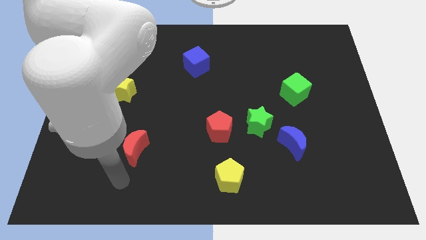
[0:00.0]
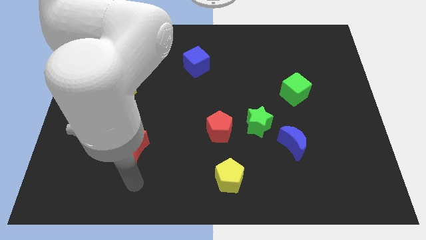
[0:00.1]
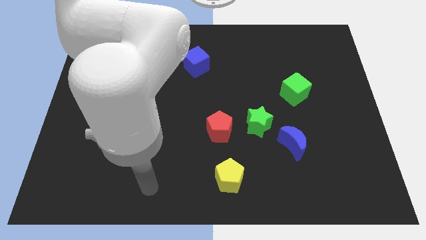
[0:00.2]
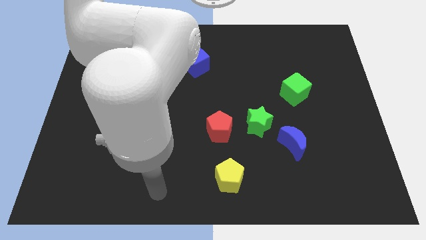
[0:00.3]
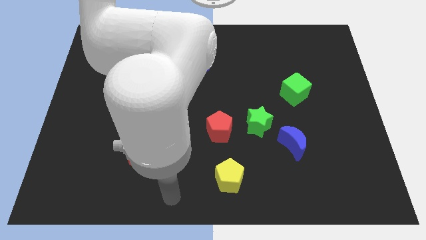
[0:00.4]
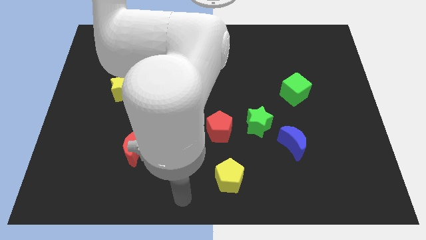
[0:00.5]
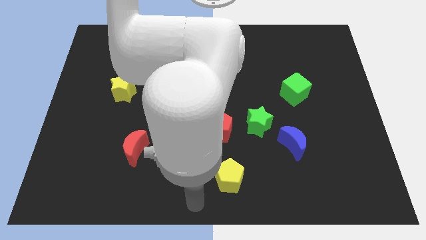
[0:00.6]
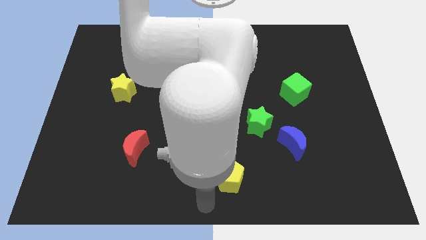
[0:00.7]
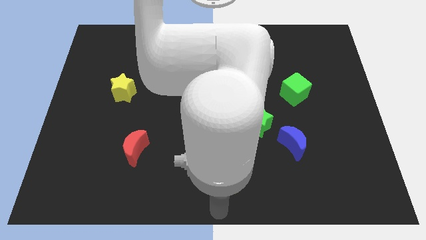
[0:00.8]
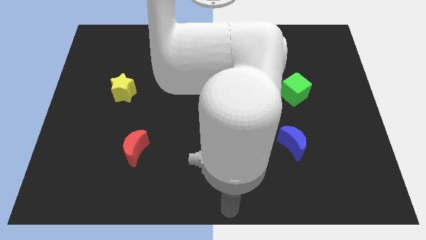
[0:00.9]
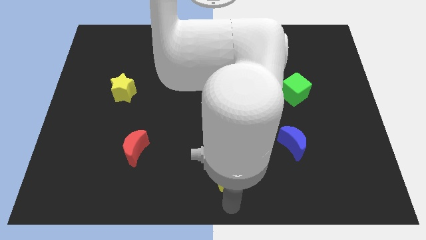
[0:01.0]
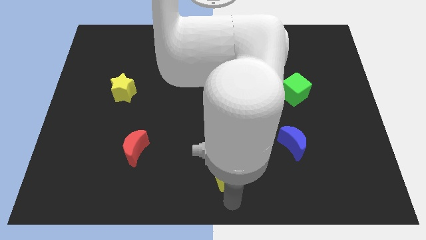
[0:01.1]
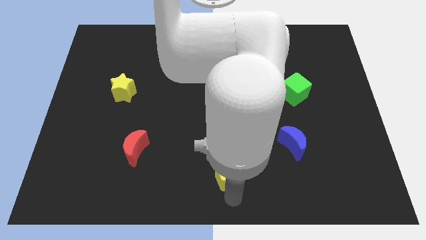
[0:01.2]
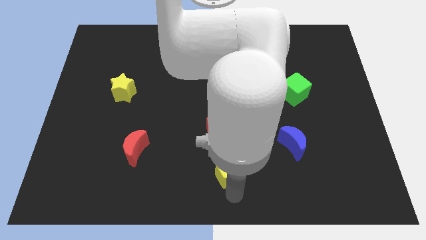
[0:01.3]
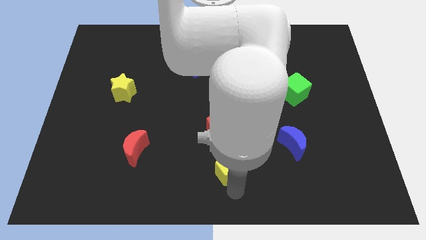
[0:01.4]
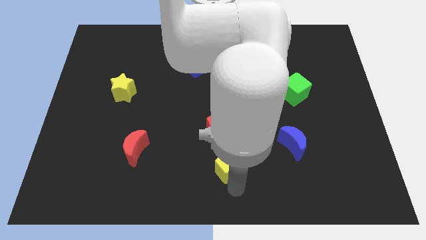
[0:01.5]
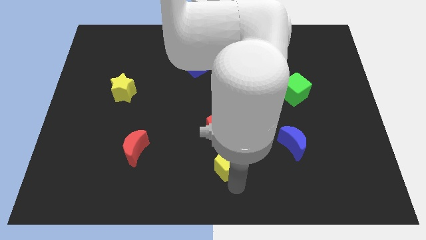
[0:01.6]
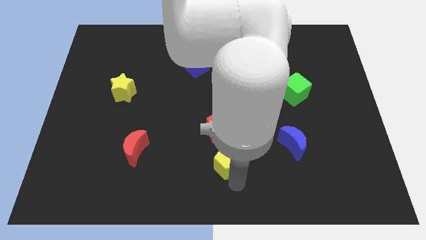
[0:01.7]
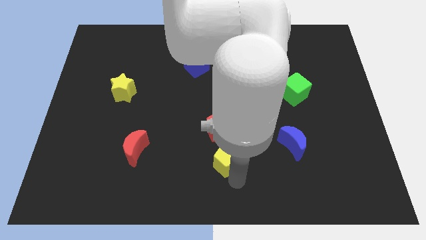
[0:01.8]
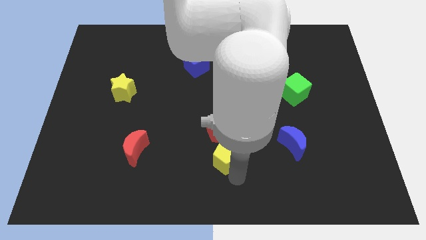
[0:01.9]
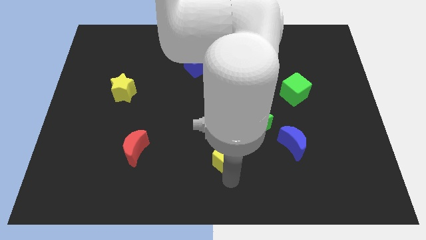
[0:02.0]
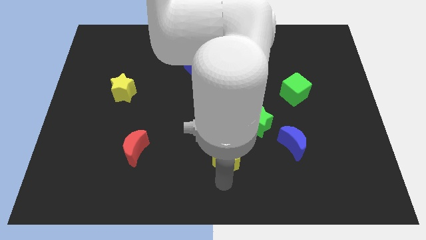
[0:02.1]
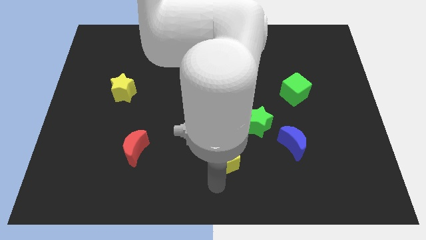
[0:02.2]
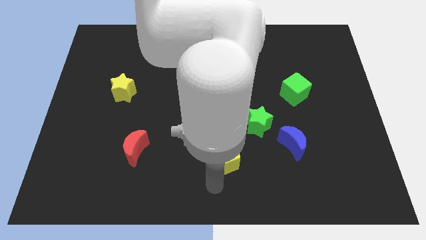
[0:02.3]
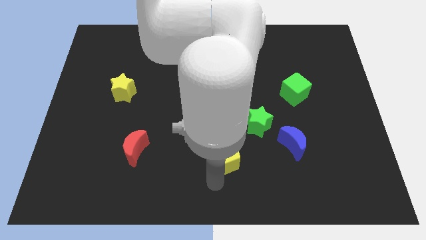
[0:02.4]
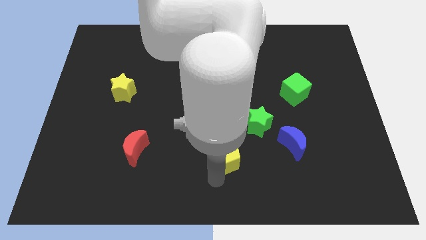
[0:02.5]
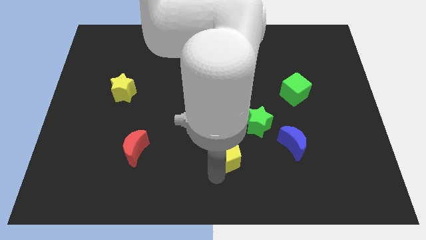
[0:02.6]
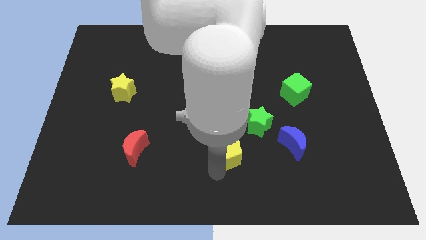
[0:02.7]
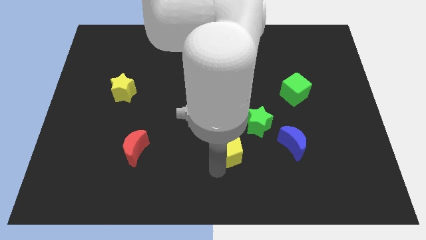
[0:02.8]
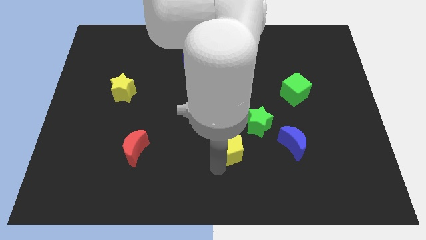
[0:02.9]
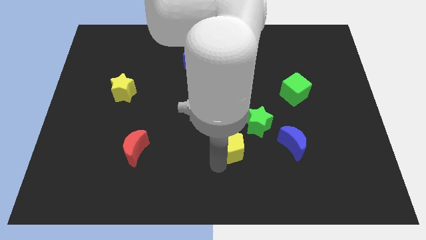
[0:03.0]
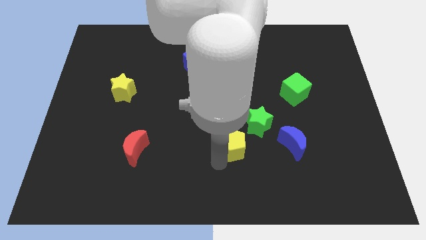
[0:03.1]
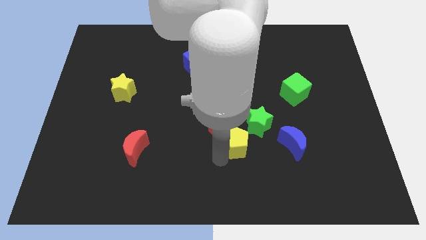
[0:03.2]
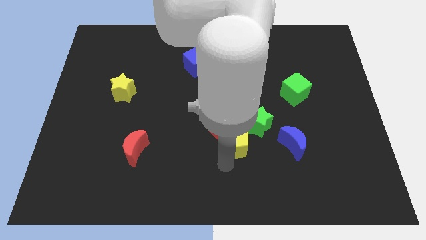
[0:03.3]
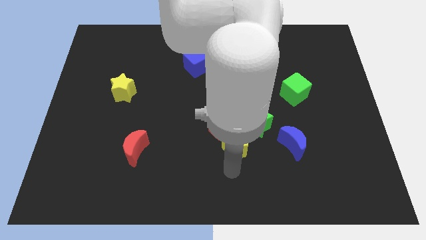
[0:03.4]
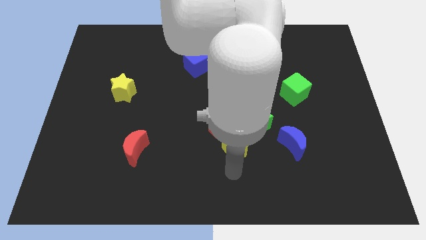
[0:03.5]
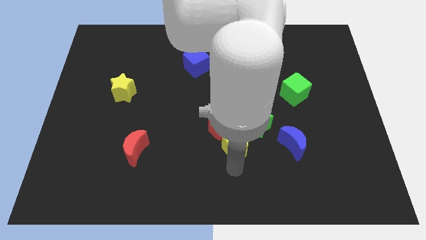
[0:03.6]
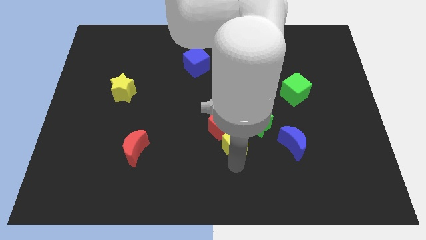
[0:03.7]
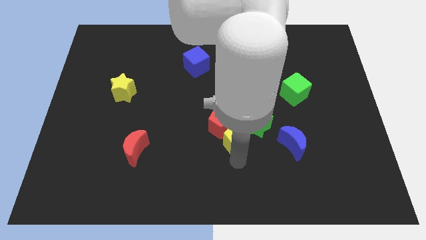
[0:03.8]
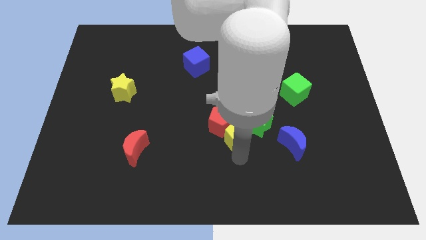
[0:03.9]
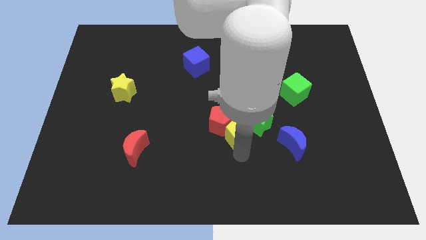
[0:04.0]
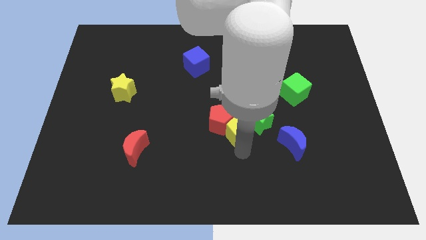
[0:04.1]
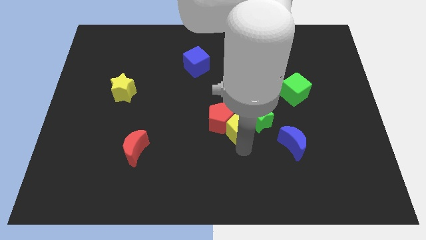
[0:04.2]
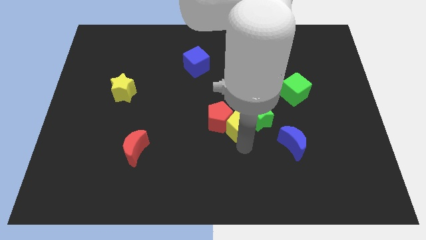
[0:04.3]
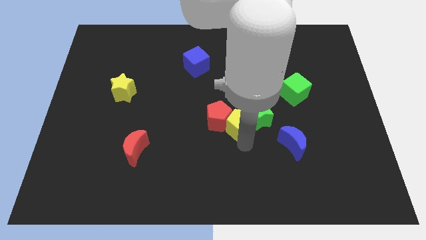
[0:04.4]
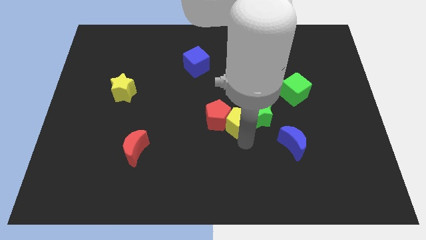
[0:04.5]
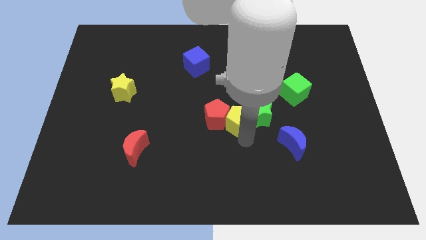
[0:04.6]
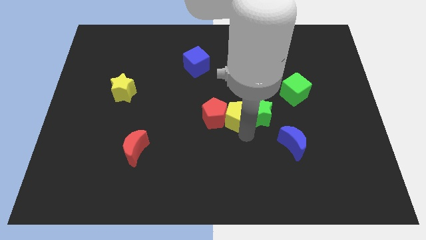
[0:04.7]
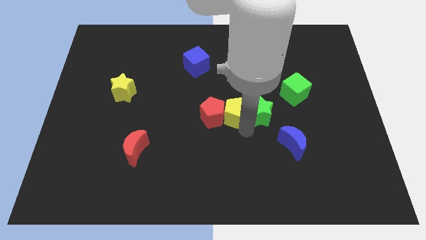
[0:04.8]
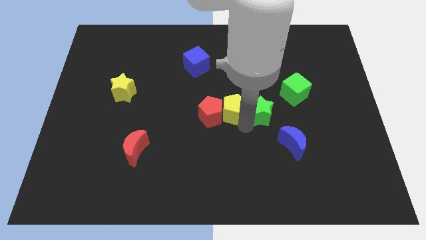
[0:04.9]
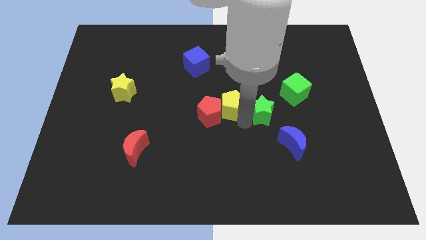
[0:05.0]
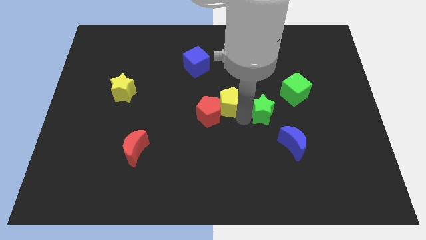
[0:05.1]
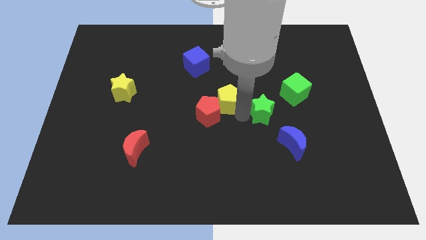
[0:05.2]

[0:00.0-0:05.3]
push the yellow pentagon to the top of the red pentagon

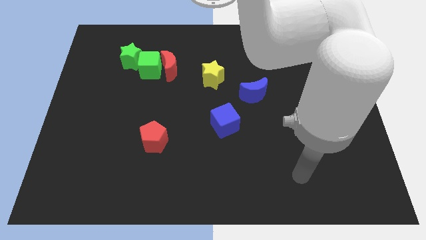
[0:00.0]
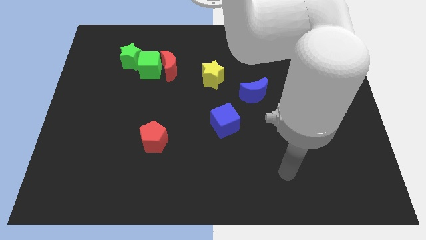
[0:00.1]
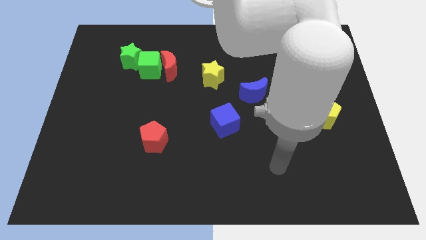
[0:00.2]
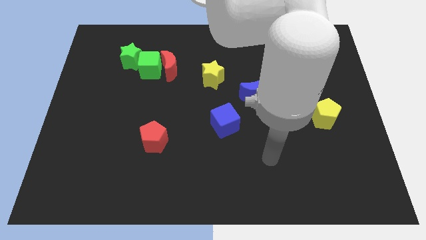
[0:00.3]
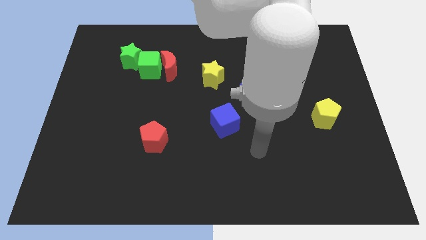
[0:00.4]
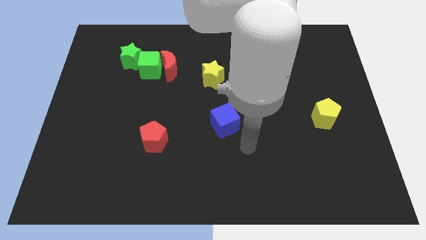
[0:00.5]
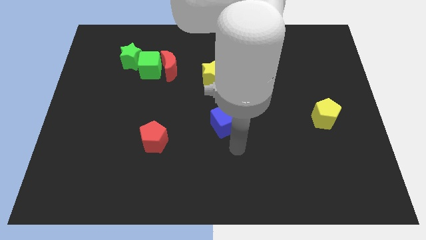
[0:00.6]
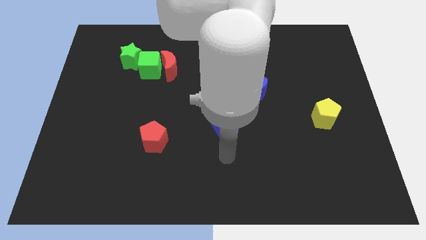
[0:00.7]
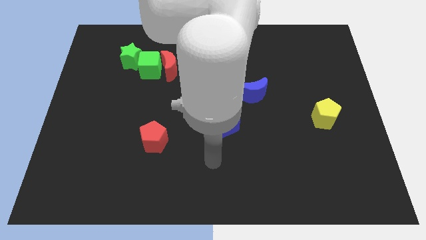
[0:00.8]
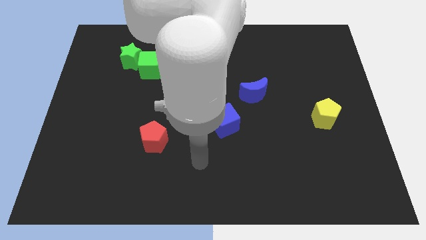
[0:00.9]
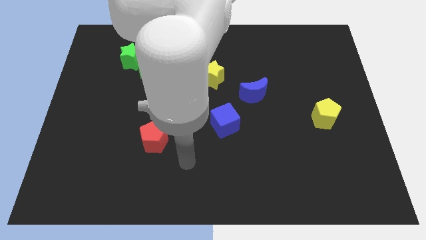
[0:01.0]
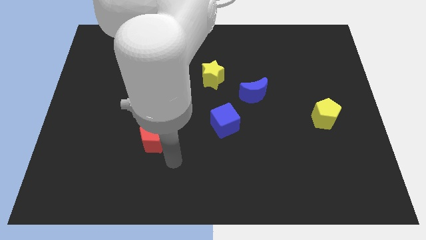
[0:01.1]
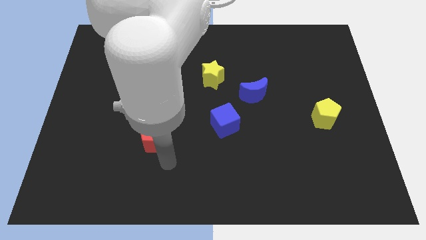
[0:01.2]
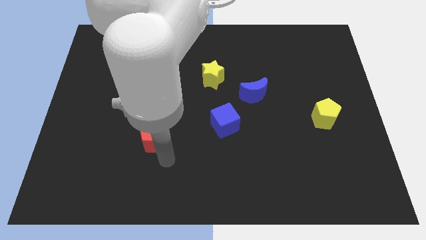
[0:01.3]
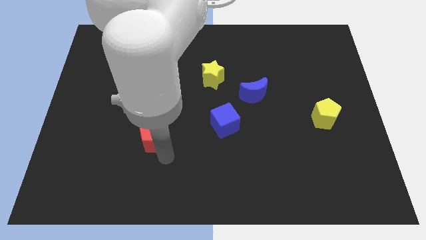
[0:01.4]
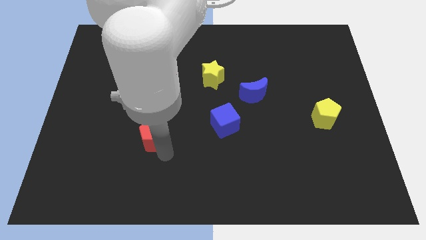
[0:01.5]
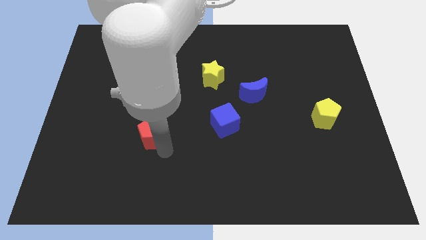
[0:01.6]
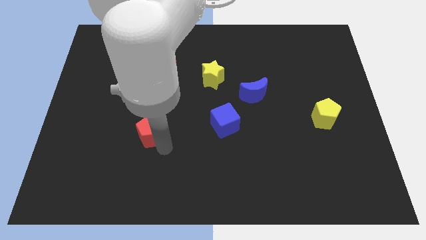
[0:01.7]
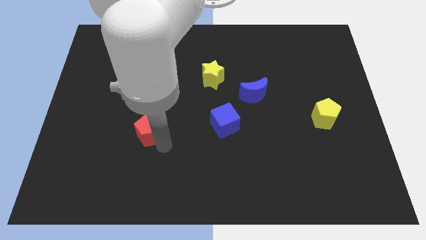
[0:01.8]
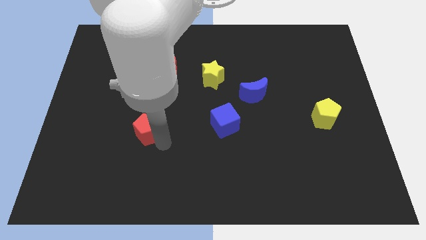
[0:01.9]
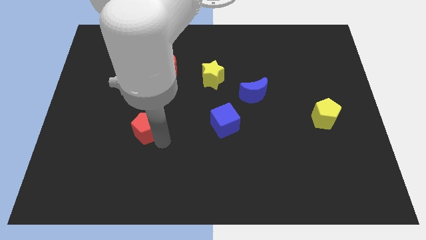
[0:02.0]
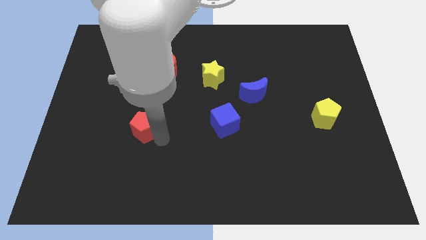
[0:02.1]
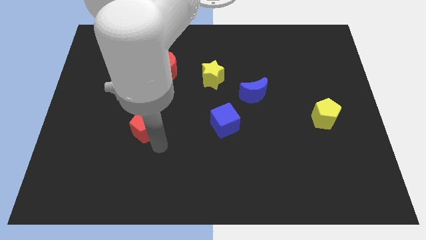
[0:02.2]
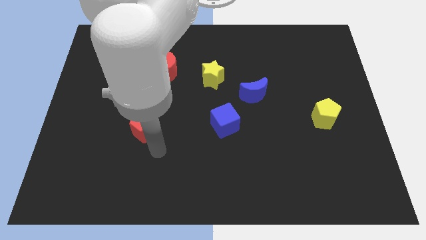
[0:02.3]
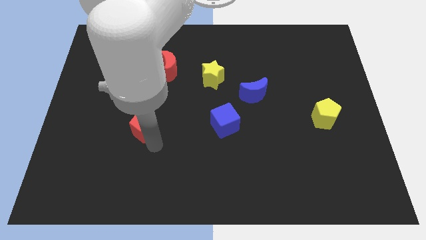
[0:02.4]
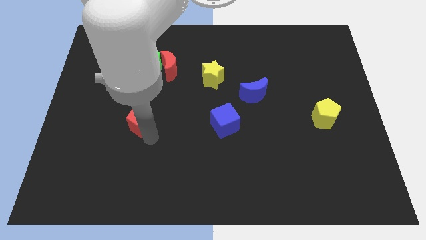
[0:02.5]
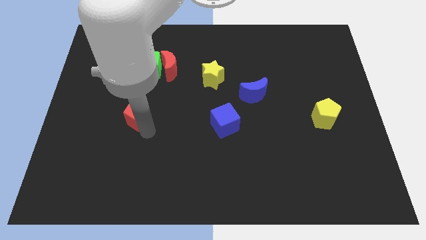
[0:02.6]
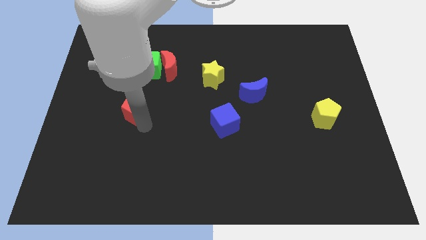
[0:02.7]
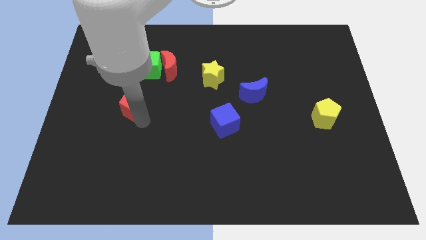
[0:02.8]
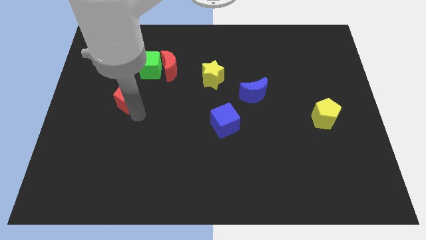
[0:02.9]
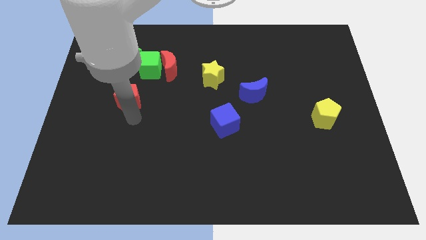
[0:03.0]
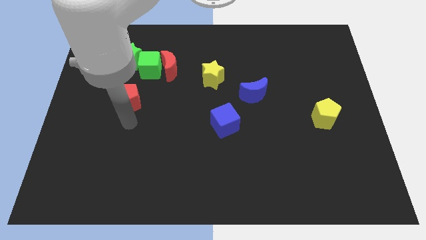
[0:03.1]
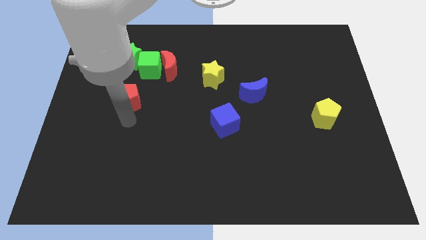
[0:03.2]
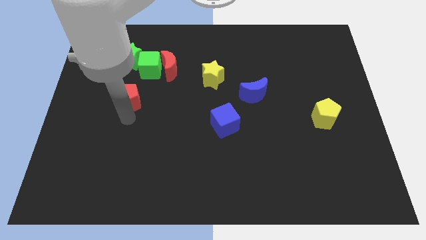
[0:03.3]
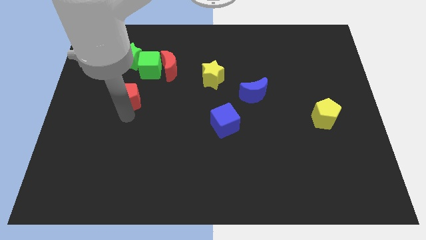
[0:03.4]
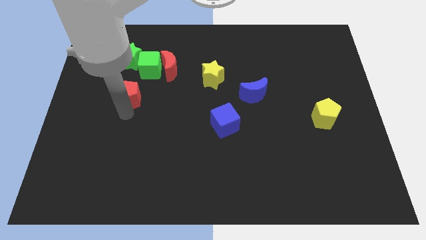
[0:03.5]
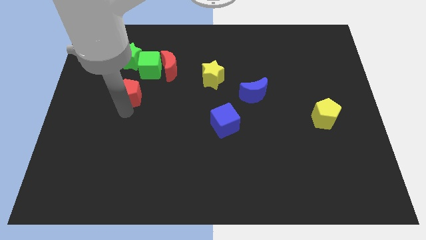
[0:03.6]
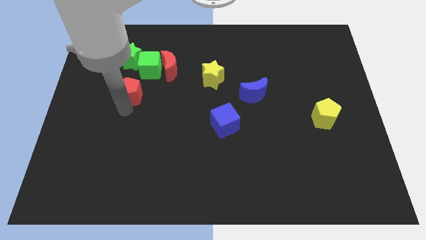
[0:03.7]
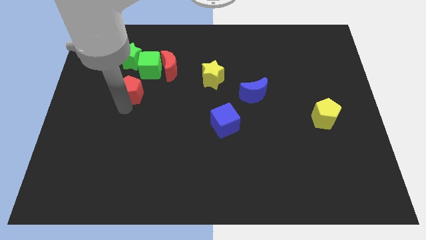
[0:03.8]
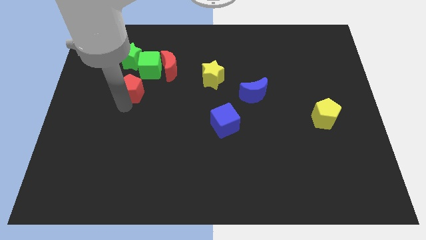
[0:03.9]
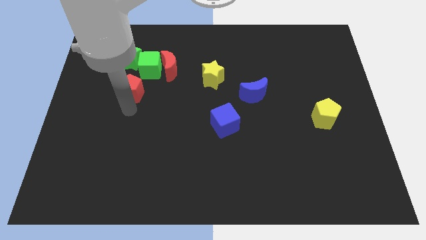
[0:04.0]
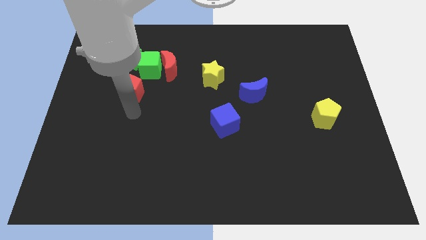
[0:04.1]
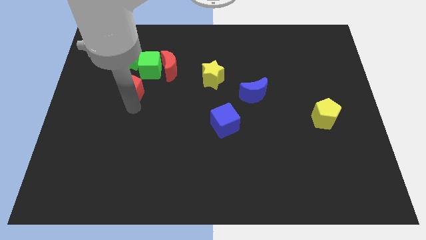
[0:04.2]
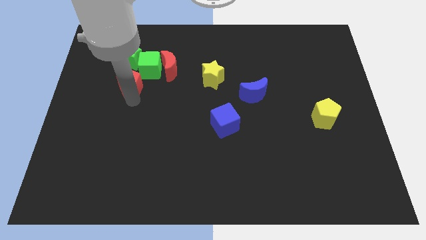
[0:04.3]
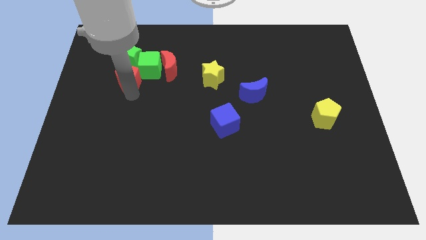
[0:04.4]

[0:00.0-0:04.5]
slide the red pentagon to the left of the red moon
